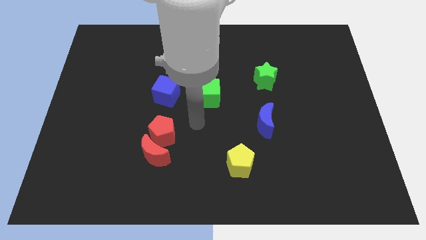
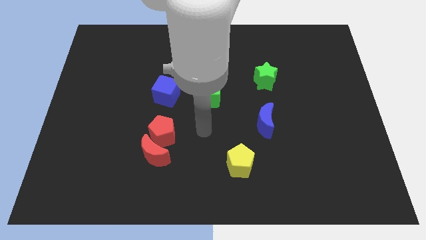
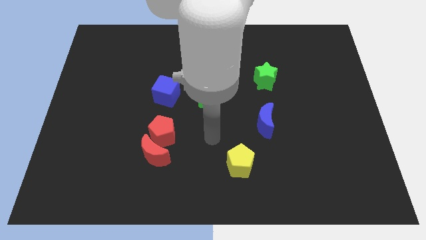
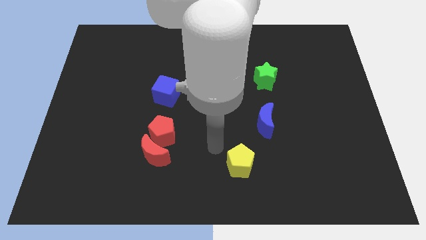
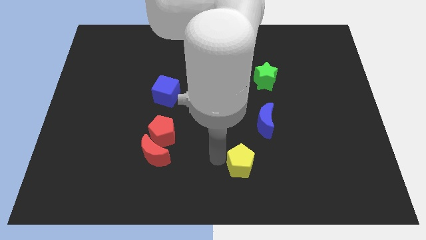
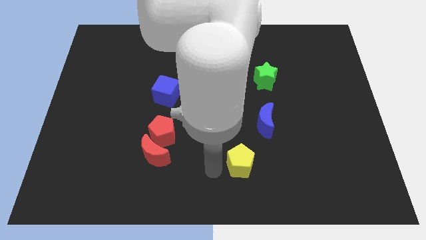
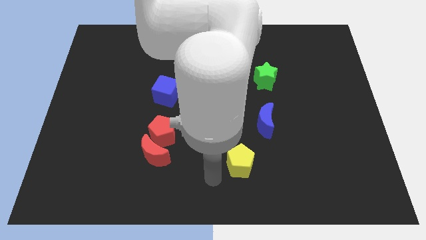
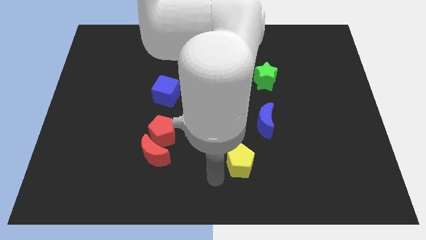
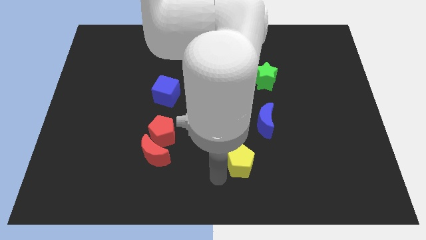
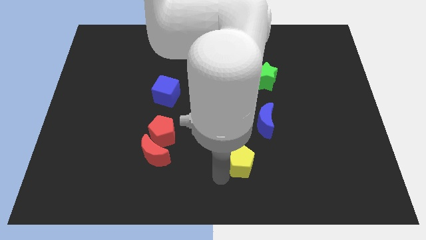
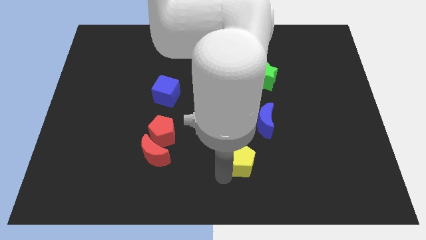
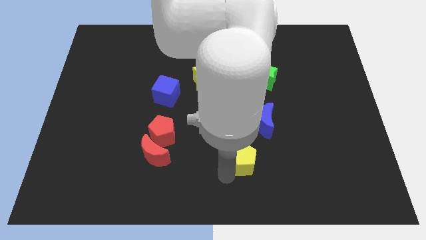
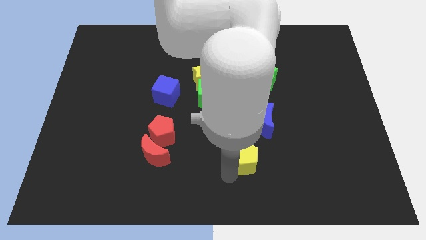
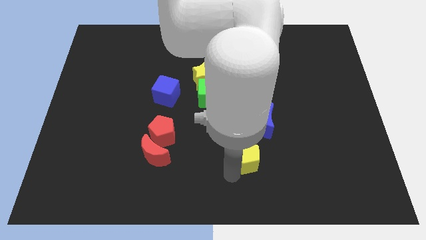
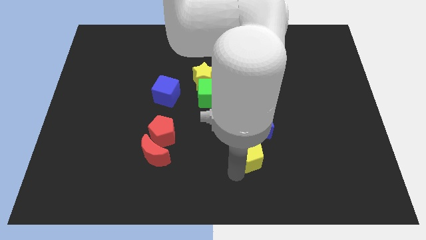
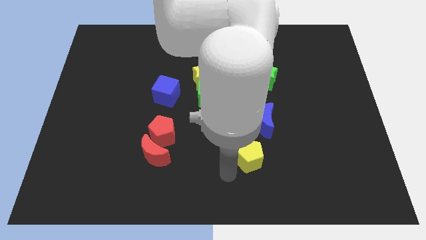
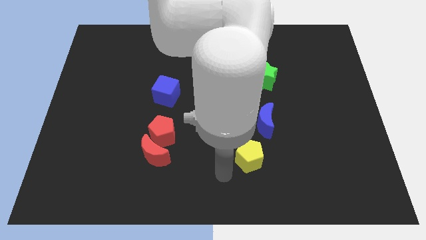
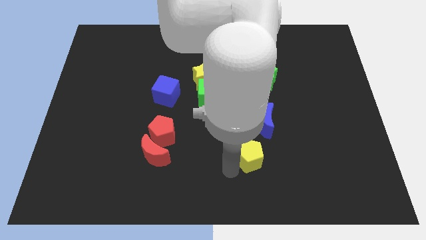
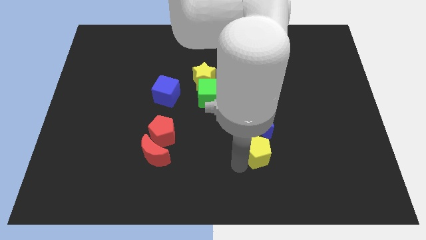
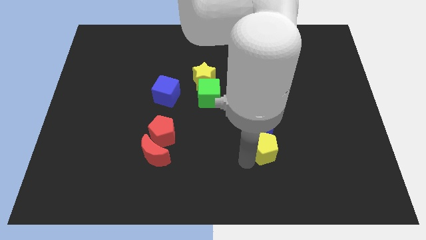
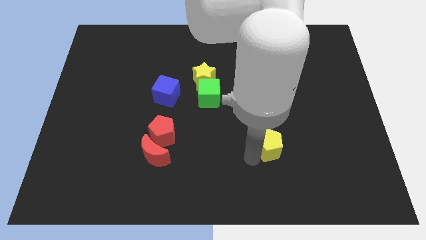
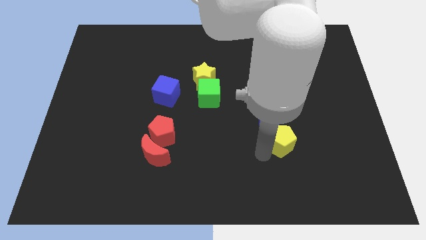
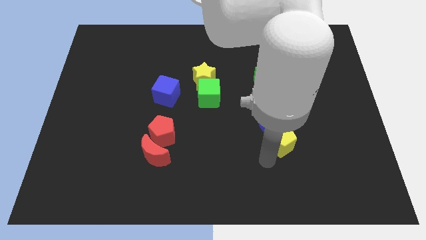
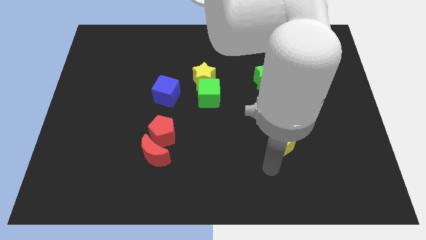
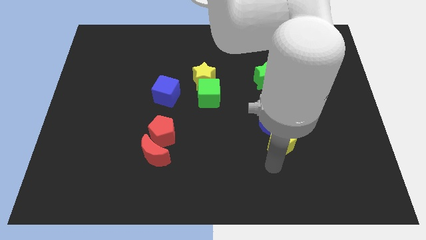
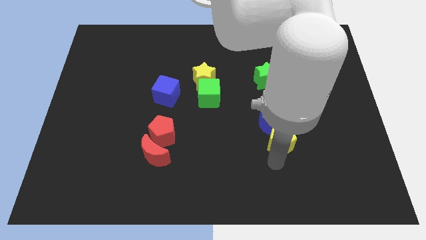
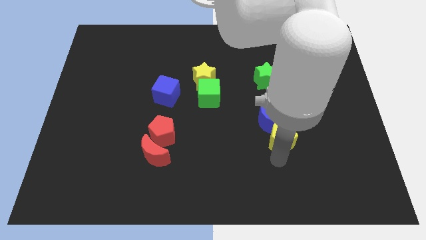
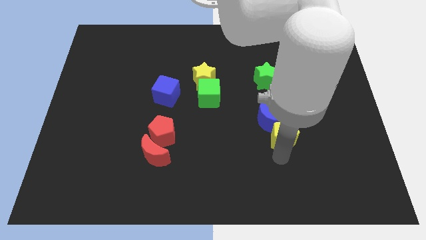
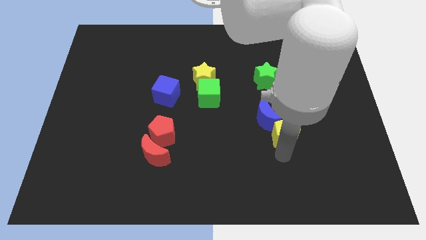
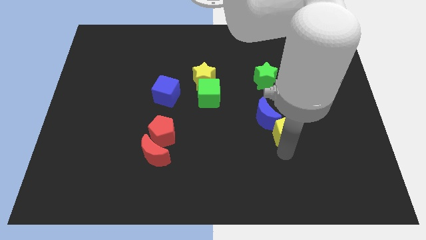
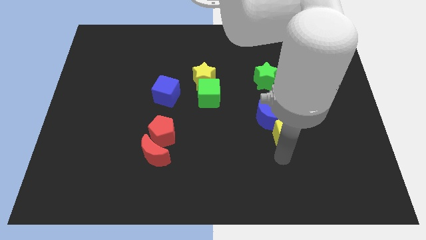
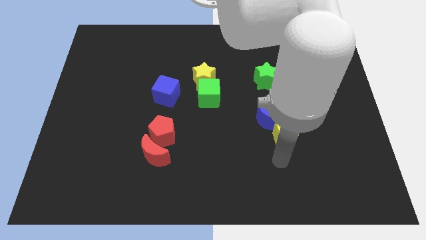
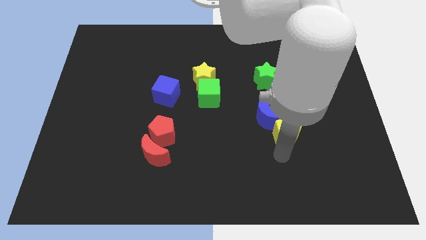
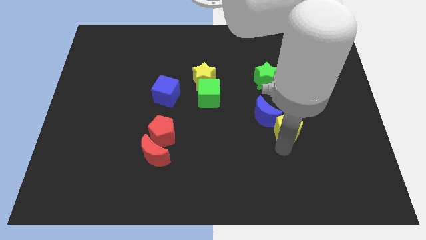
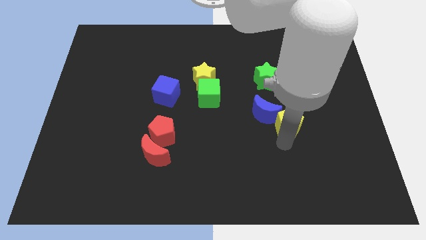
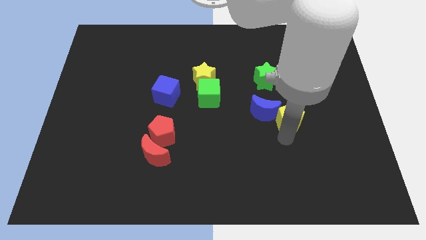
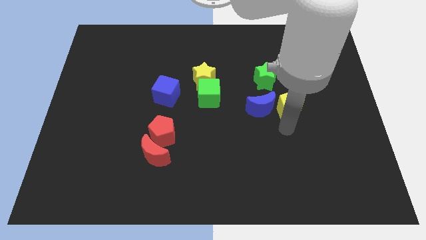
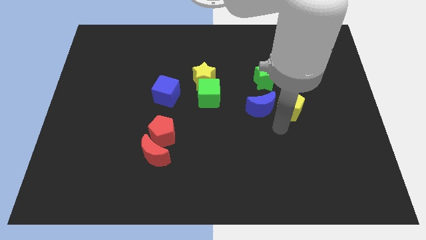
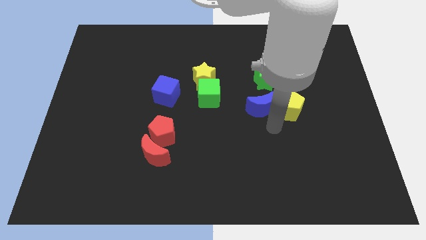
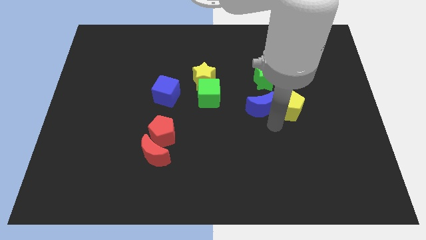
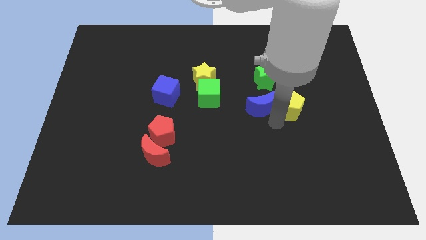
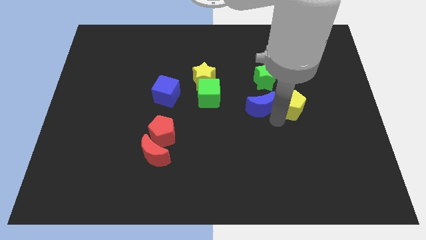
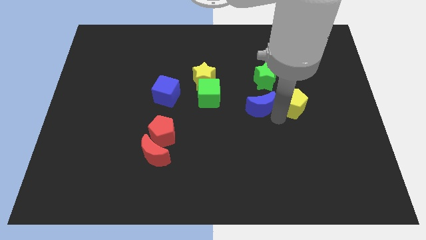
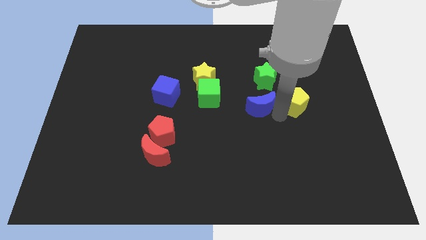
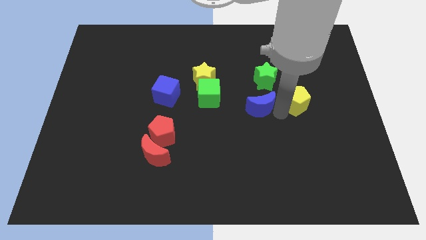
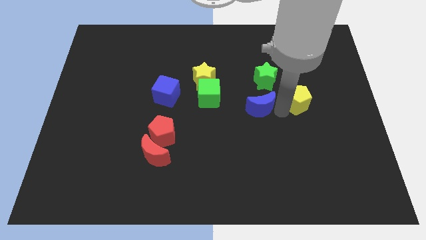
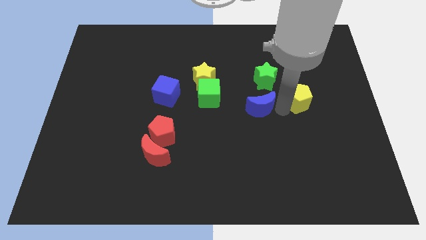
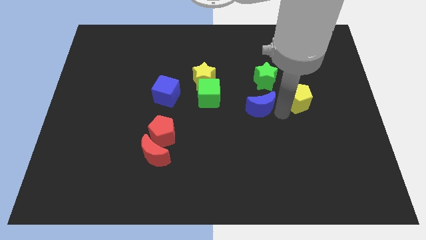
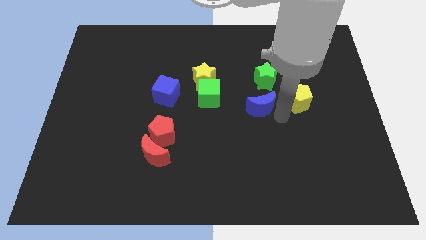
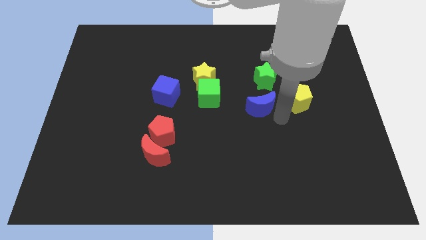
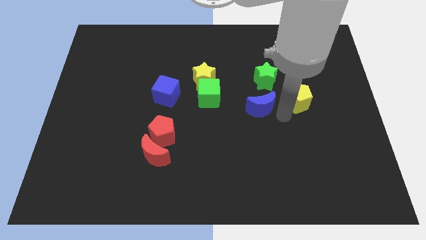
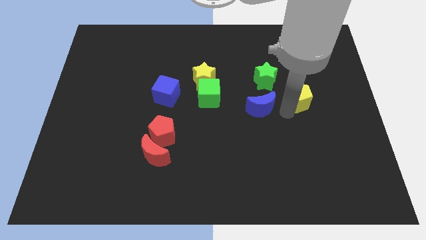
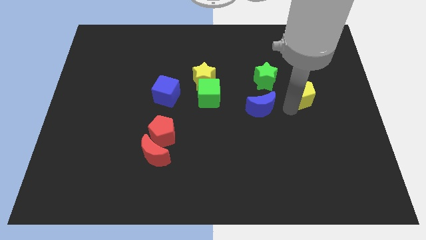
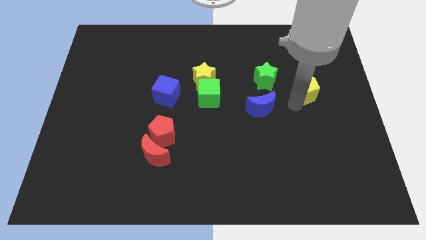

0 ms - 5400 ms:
move the yellow pentagon right of the green star

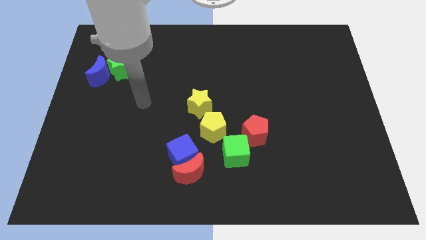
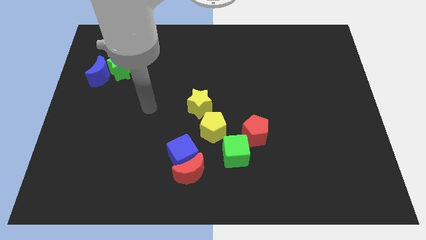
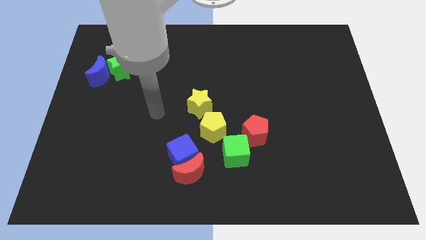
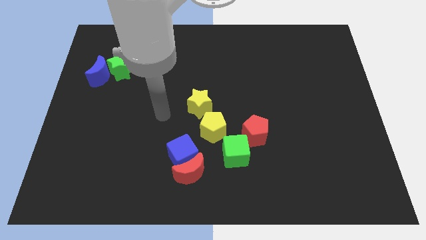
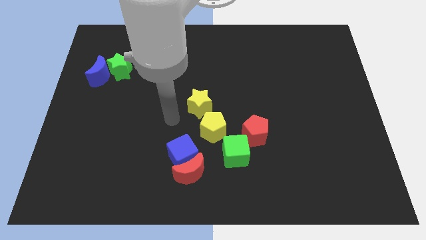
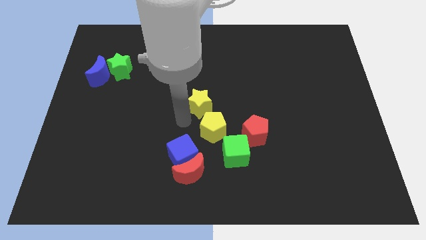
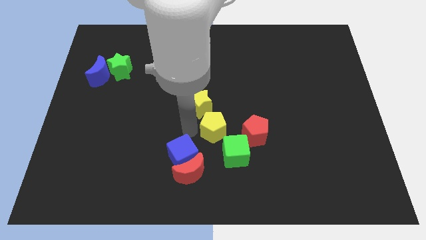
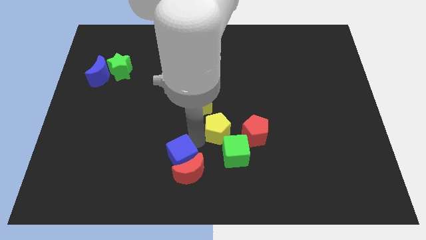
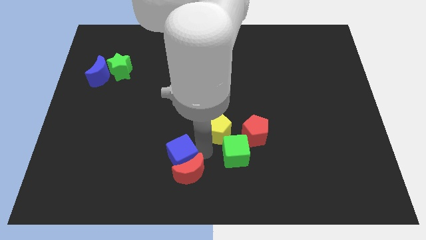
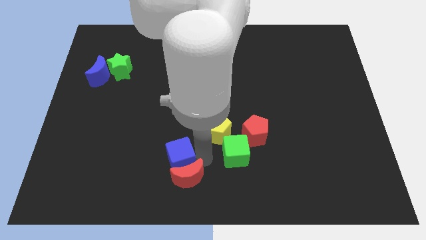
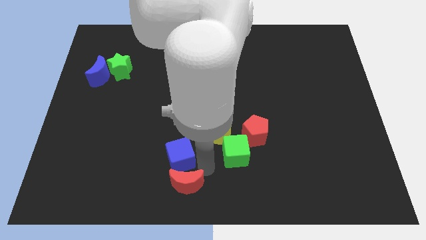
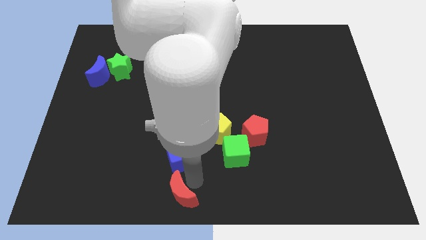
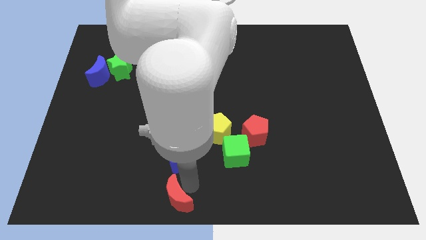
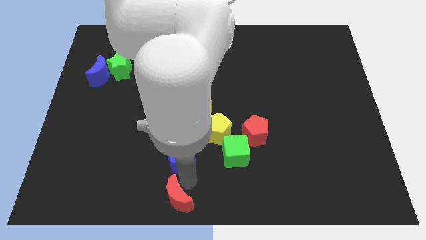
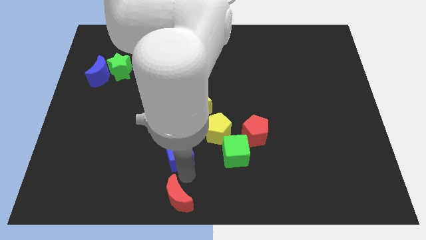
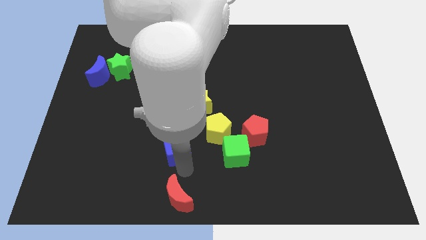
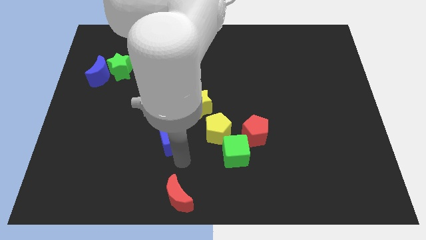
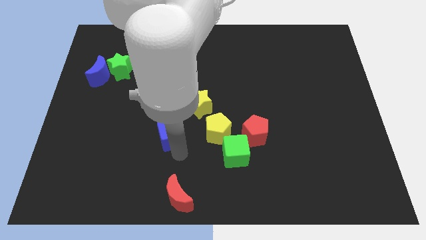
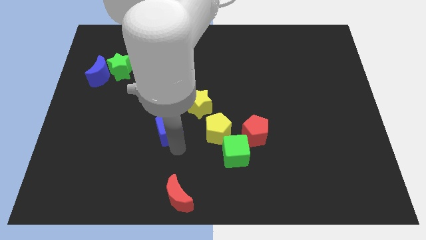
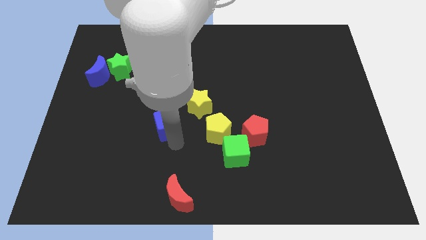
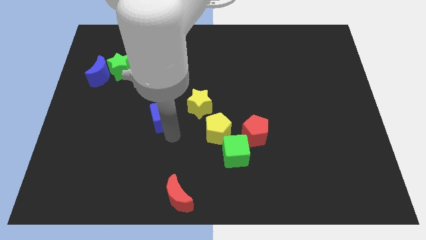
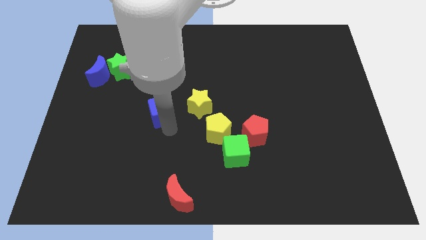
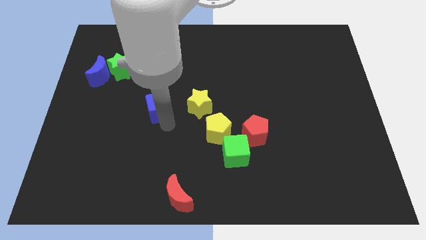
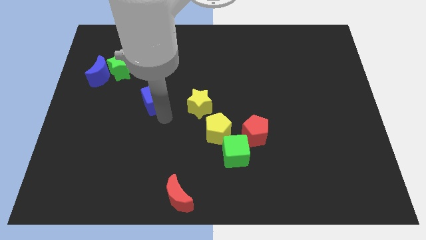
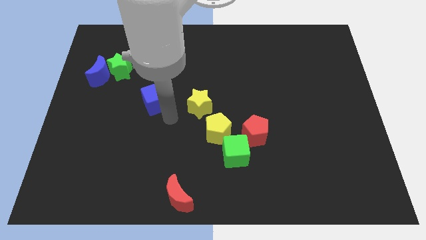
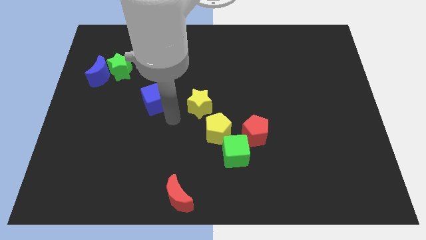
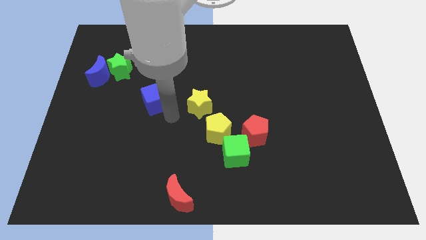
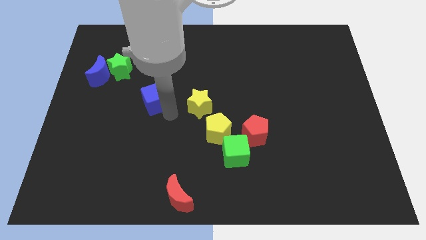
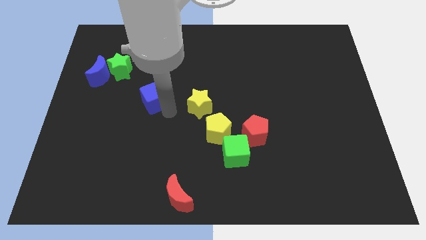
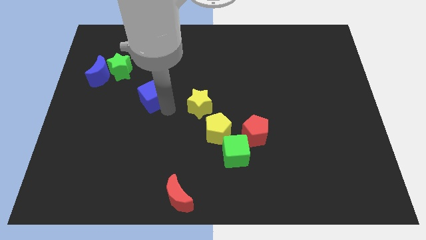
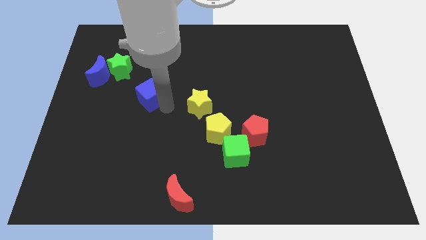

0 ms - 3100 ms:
slide the blue cube to the bottom right of the green star
